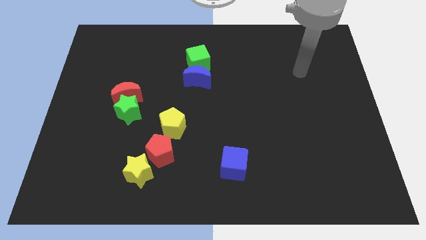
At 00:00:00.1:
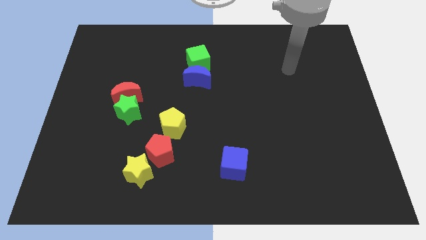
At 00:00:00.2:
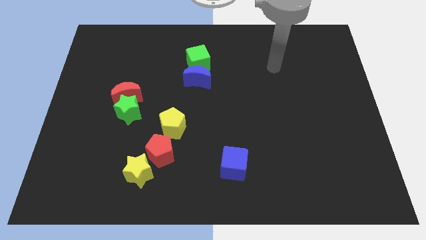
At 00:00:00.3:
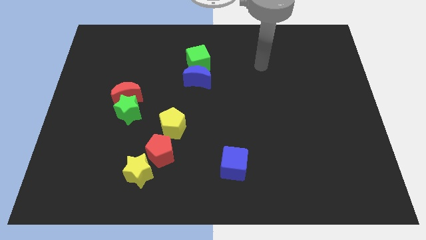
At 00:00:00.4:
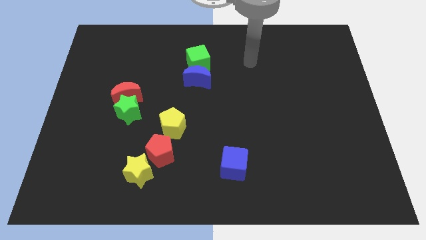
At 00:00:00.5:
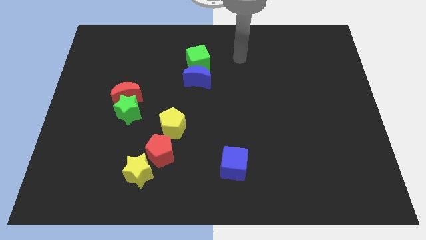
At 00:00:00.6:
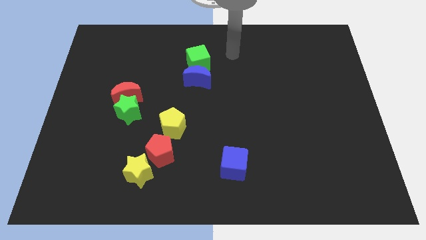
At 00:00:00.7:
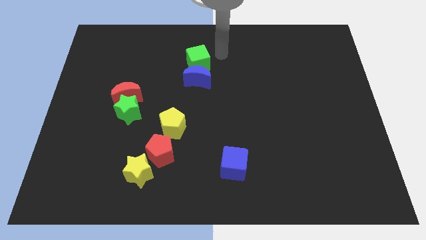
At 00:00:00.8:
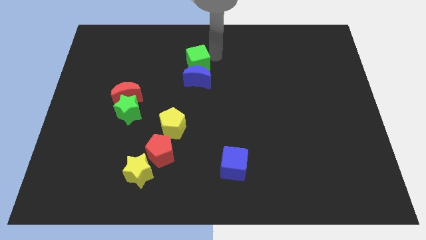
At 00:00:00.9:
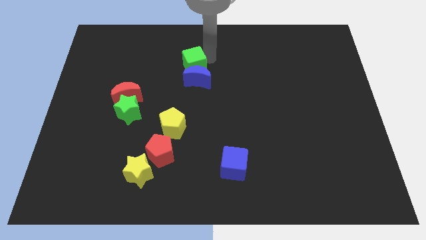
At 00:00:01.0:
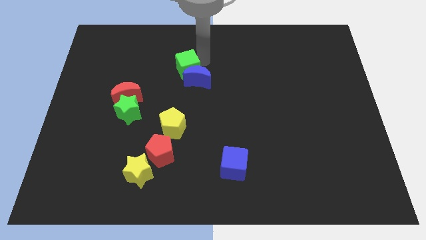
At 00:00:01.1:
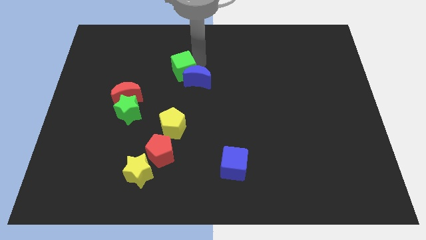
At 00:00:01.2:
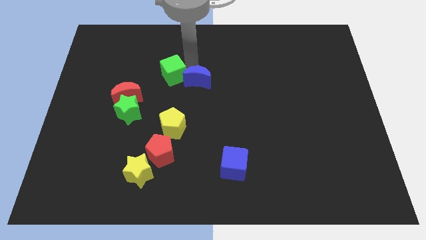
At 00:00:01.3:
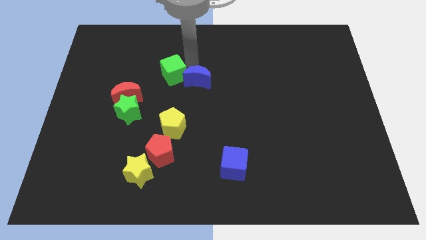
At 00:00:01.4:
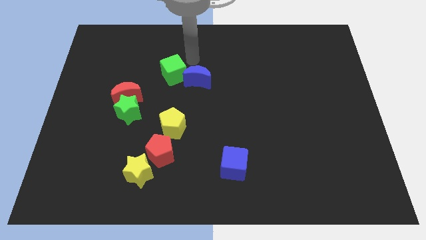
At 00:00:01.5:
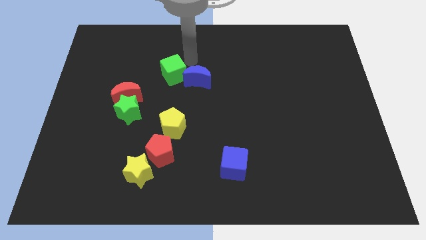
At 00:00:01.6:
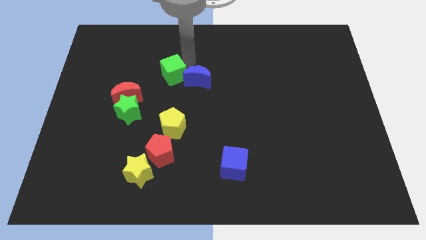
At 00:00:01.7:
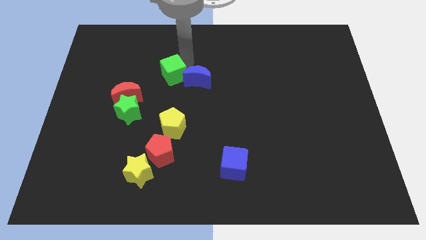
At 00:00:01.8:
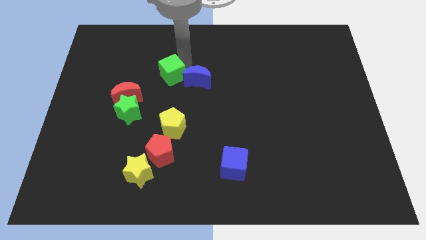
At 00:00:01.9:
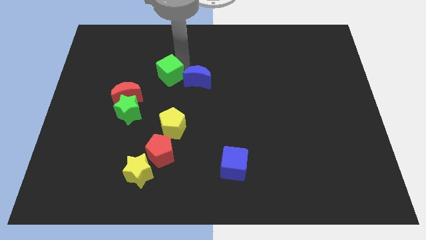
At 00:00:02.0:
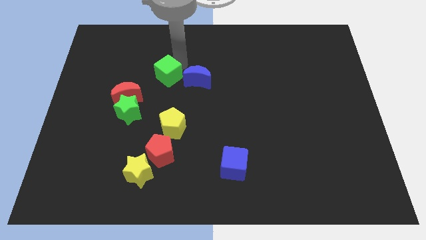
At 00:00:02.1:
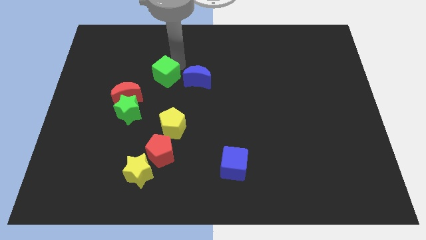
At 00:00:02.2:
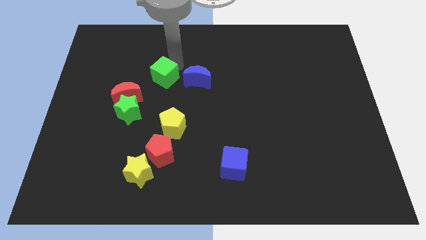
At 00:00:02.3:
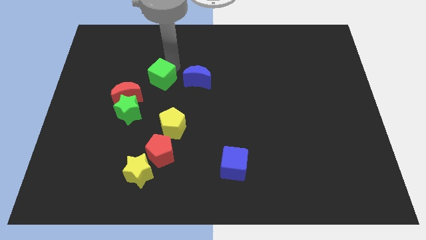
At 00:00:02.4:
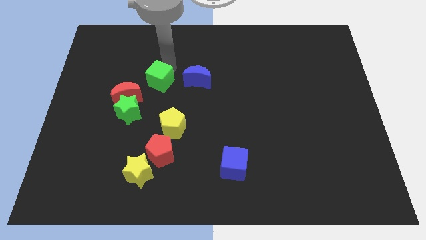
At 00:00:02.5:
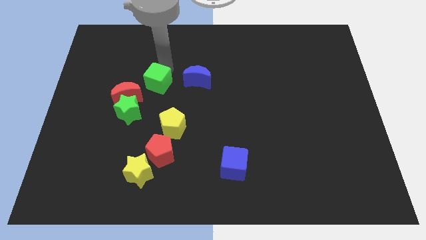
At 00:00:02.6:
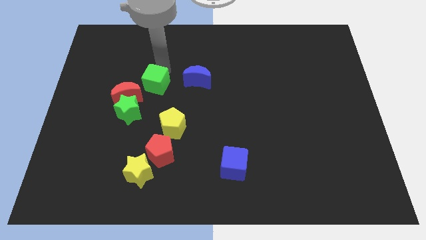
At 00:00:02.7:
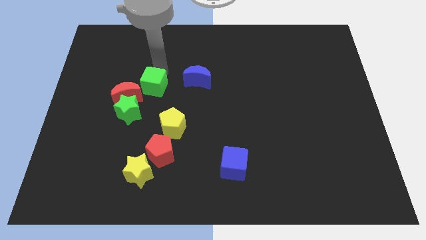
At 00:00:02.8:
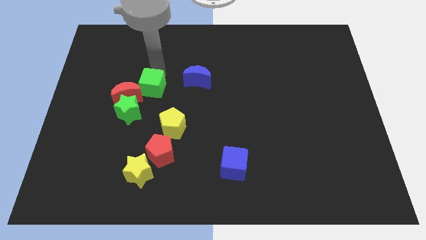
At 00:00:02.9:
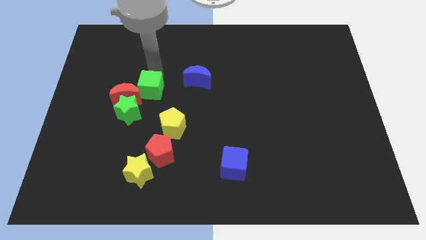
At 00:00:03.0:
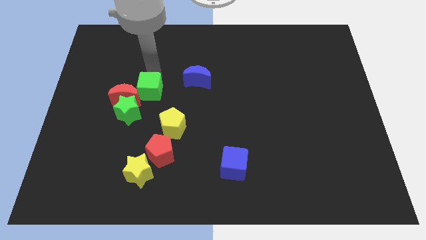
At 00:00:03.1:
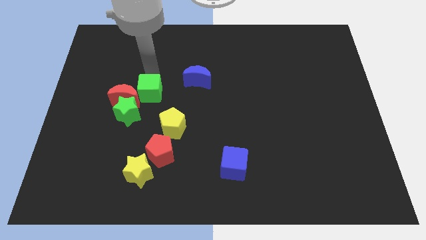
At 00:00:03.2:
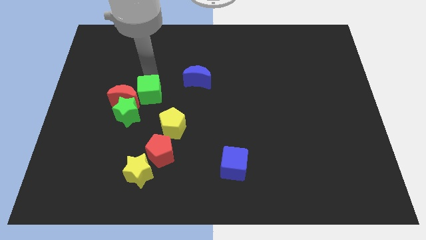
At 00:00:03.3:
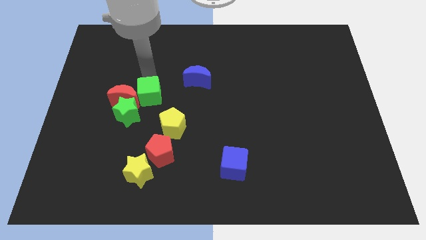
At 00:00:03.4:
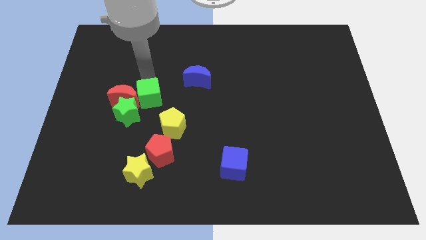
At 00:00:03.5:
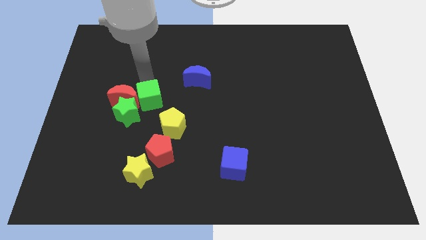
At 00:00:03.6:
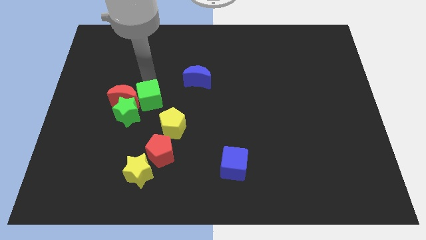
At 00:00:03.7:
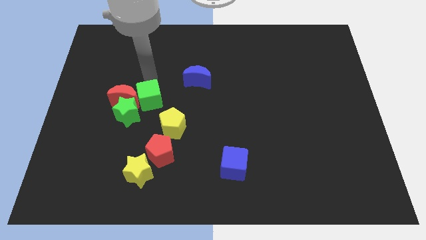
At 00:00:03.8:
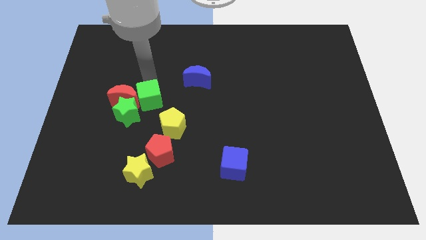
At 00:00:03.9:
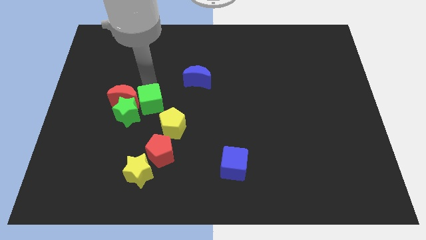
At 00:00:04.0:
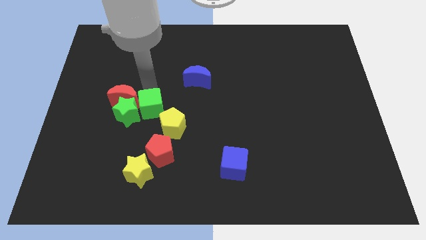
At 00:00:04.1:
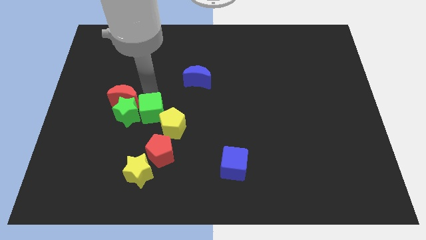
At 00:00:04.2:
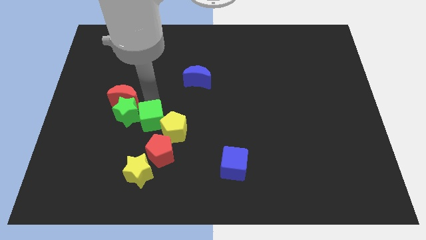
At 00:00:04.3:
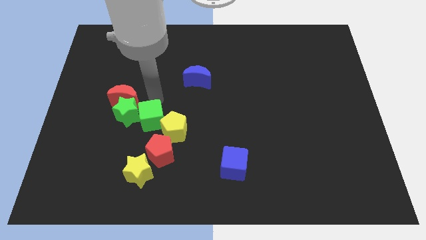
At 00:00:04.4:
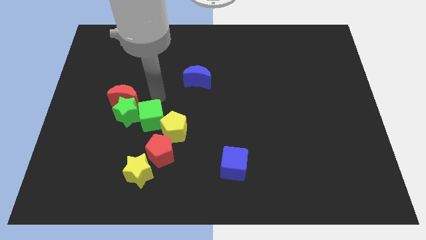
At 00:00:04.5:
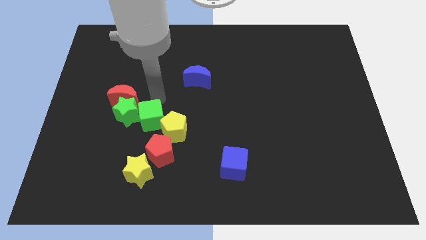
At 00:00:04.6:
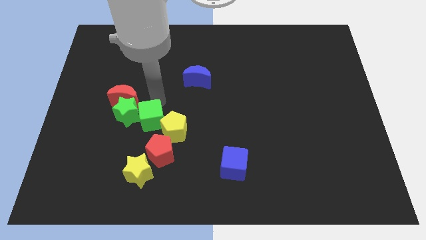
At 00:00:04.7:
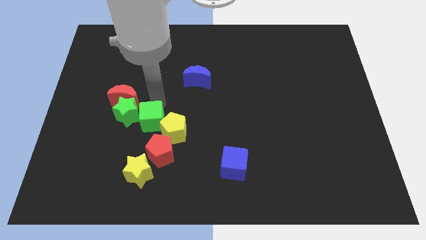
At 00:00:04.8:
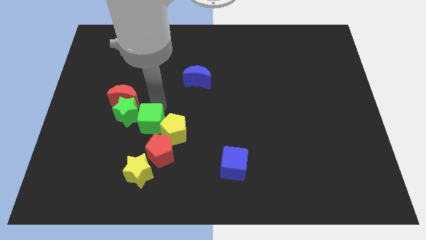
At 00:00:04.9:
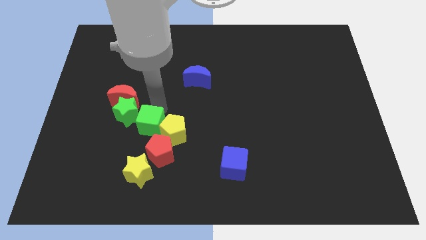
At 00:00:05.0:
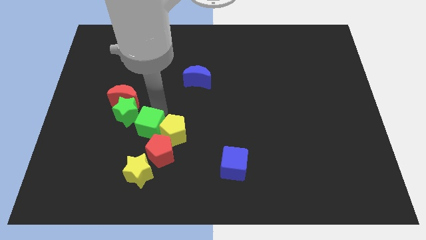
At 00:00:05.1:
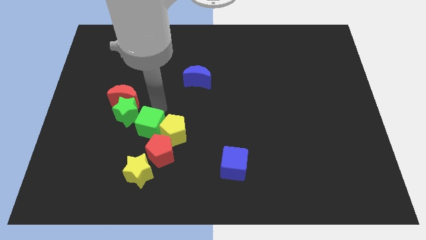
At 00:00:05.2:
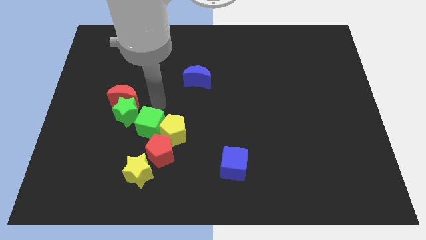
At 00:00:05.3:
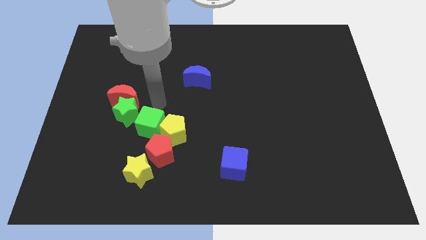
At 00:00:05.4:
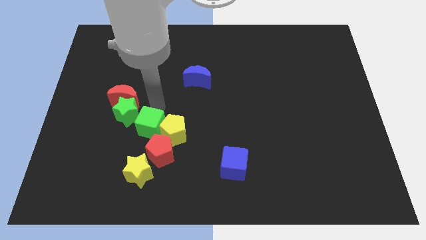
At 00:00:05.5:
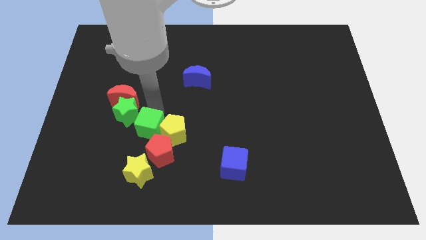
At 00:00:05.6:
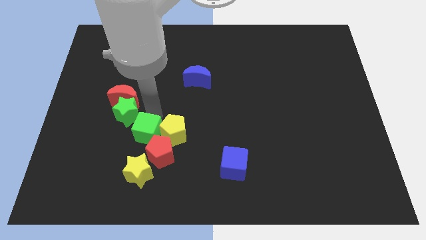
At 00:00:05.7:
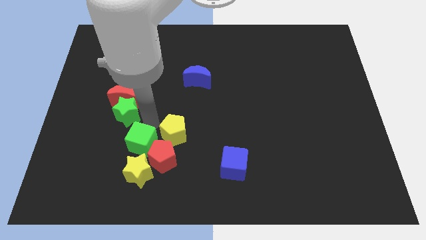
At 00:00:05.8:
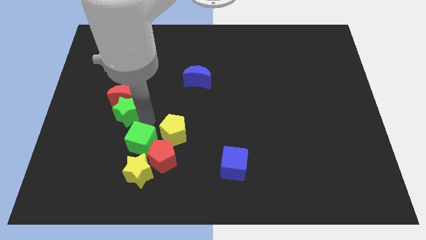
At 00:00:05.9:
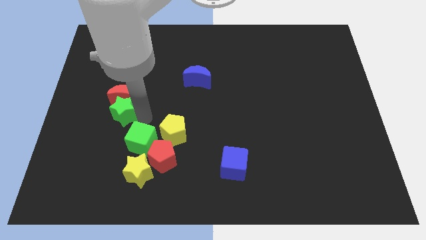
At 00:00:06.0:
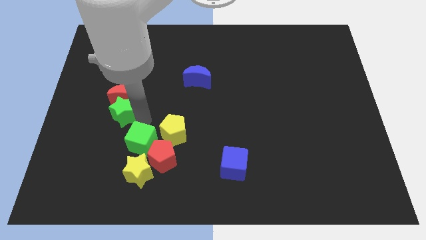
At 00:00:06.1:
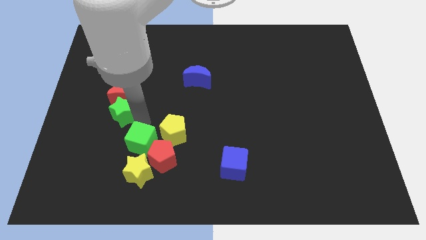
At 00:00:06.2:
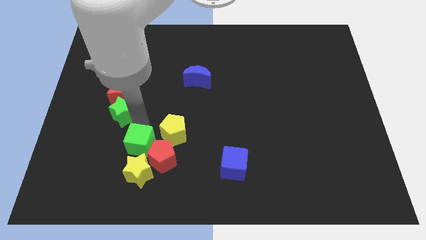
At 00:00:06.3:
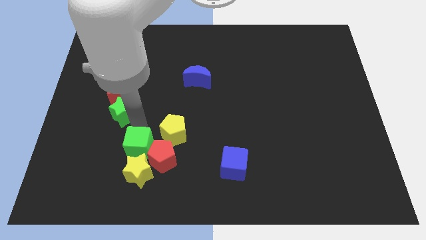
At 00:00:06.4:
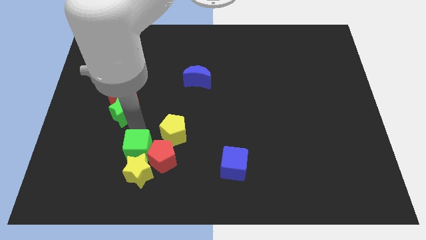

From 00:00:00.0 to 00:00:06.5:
push the green cube towards the yellow star

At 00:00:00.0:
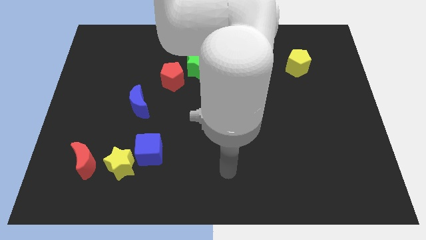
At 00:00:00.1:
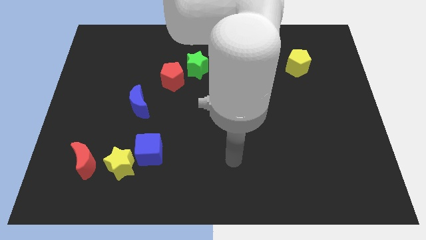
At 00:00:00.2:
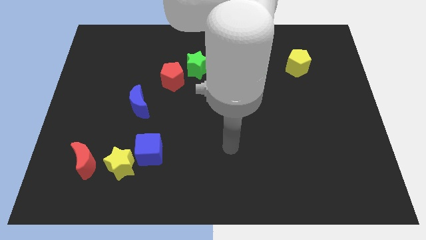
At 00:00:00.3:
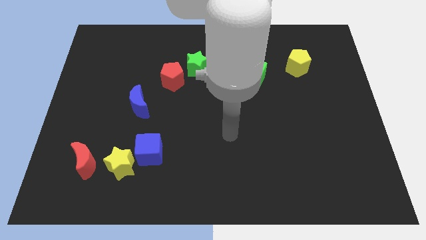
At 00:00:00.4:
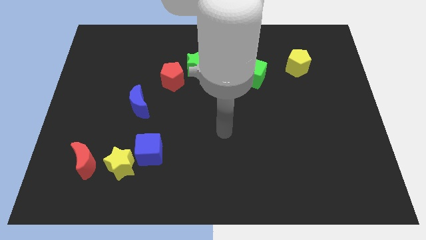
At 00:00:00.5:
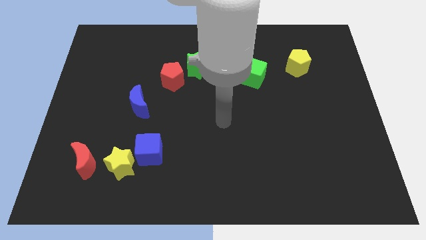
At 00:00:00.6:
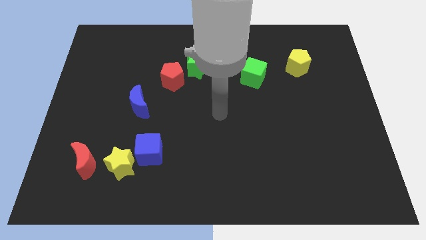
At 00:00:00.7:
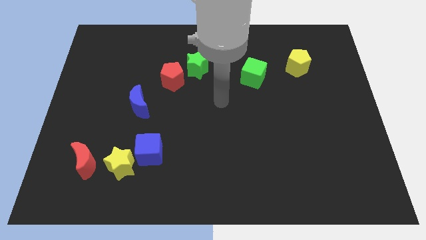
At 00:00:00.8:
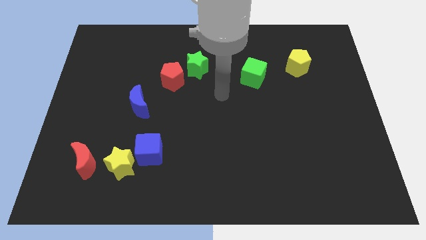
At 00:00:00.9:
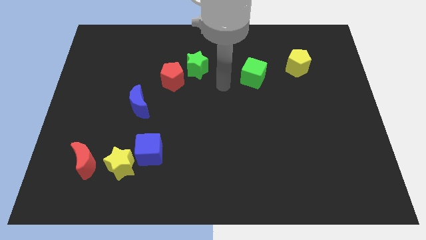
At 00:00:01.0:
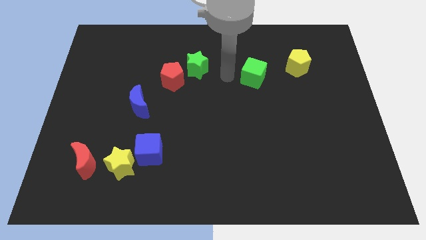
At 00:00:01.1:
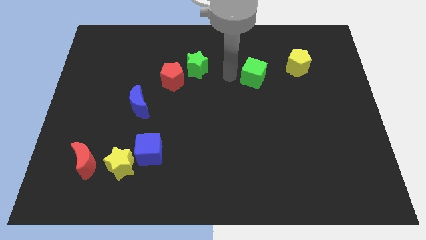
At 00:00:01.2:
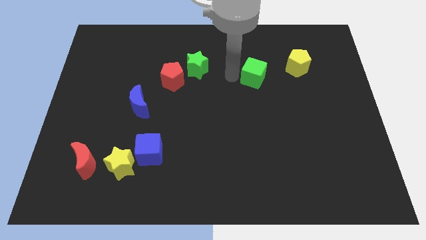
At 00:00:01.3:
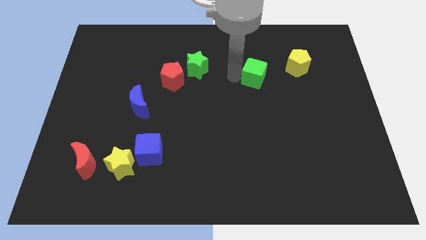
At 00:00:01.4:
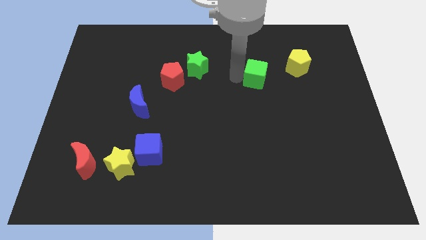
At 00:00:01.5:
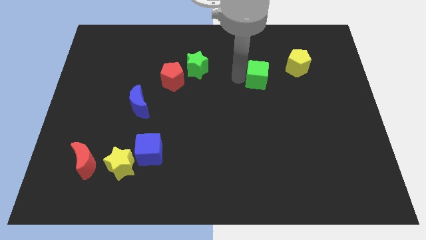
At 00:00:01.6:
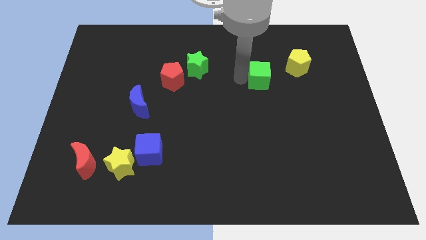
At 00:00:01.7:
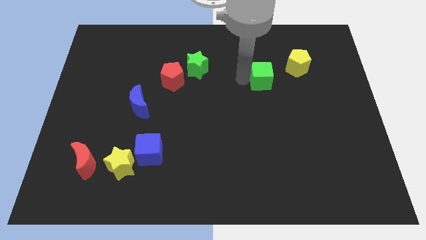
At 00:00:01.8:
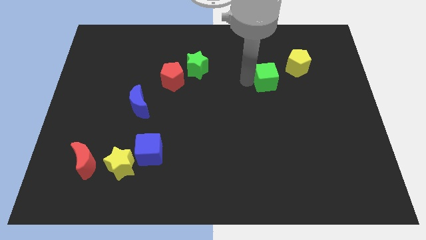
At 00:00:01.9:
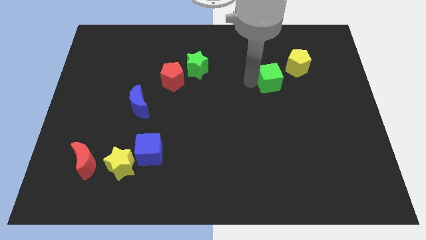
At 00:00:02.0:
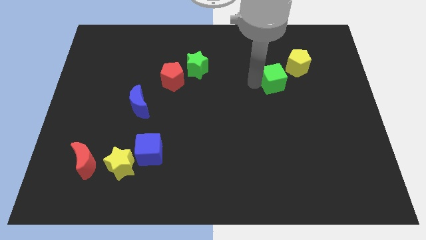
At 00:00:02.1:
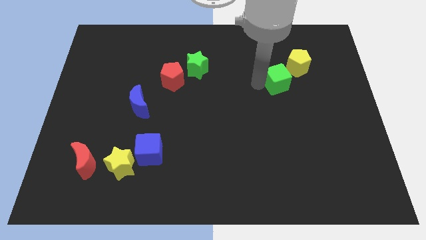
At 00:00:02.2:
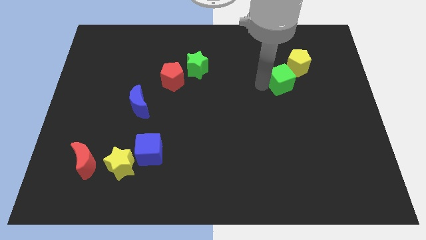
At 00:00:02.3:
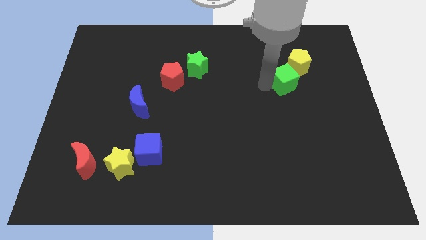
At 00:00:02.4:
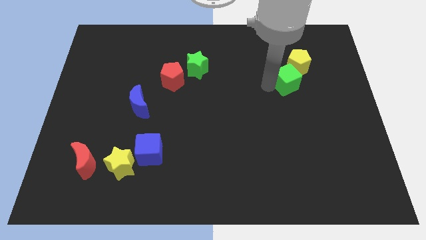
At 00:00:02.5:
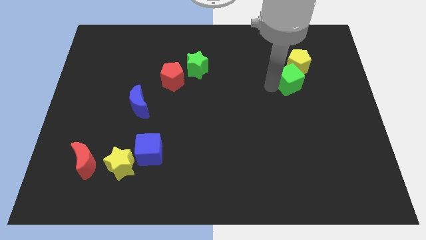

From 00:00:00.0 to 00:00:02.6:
push the green cube to the yellow pentagon
